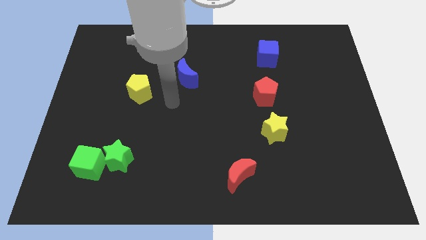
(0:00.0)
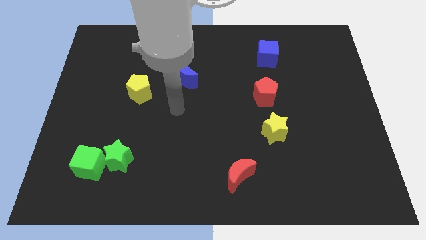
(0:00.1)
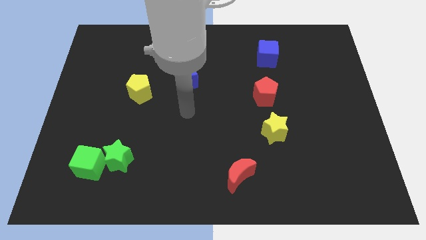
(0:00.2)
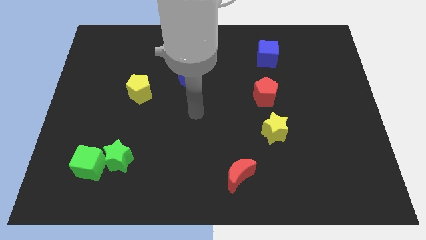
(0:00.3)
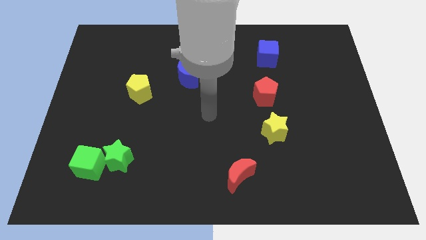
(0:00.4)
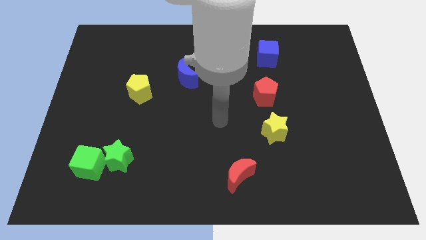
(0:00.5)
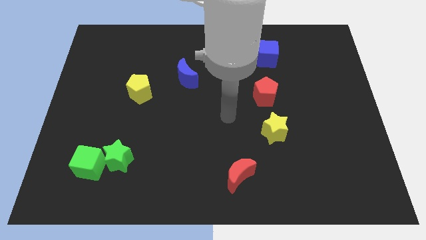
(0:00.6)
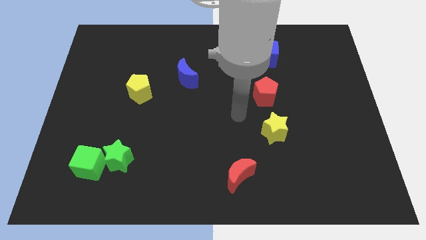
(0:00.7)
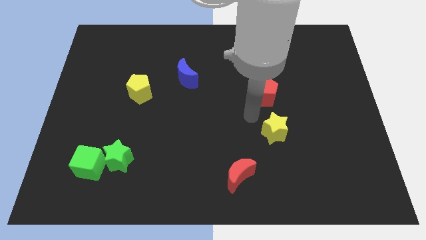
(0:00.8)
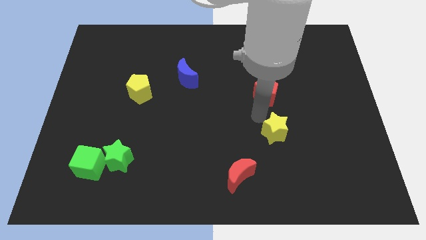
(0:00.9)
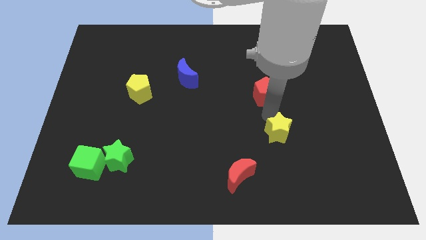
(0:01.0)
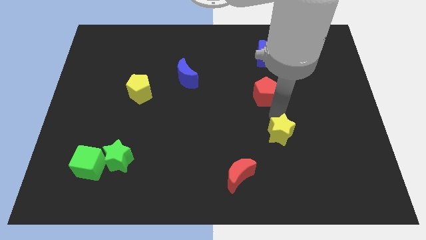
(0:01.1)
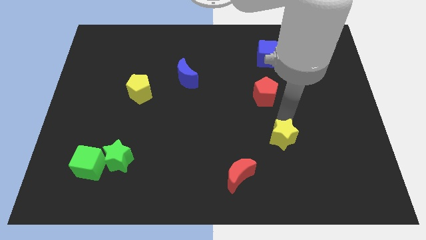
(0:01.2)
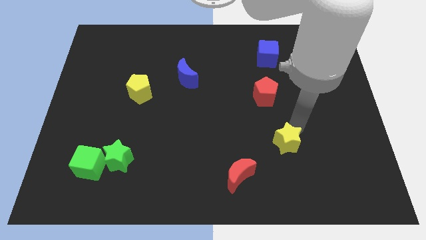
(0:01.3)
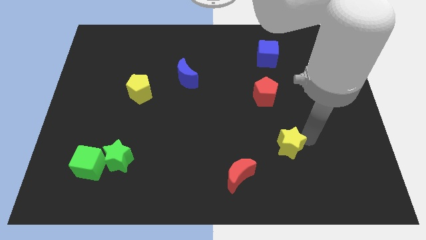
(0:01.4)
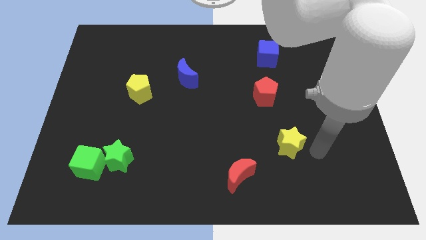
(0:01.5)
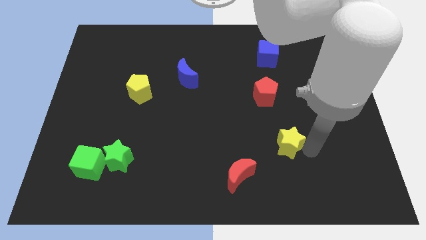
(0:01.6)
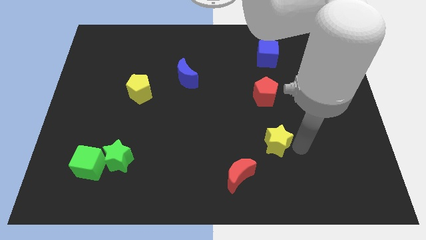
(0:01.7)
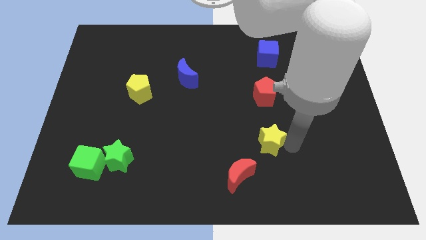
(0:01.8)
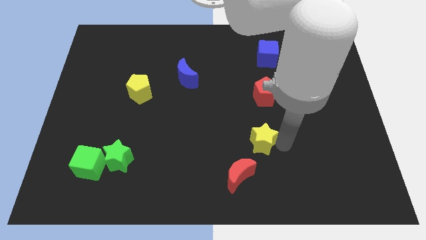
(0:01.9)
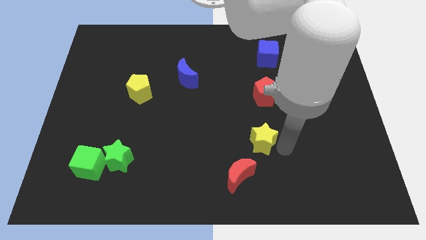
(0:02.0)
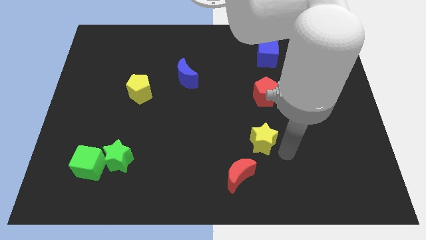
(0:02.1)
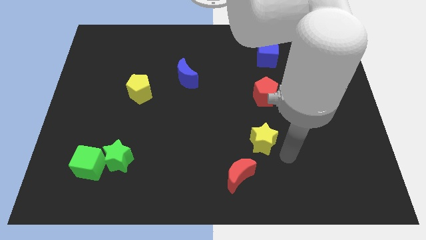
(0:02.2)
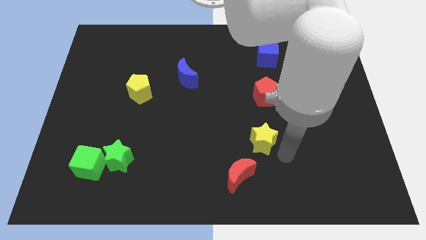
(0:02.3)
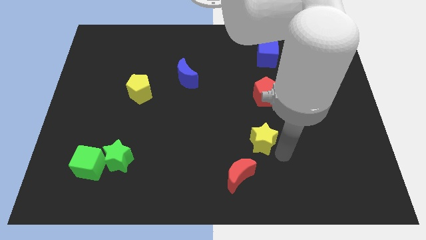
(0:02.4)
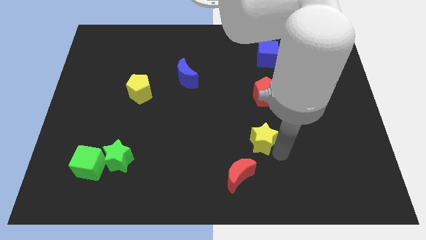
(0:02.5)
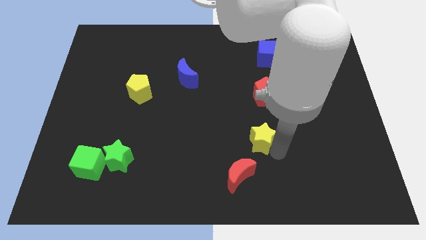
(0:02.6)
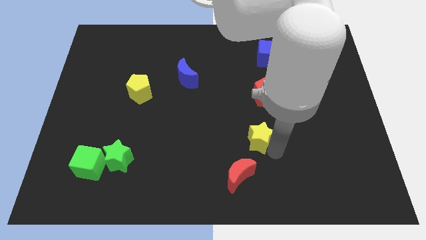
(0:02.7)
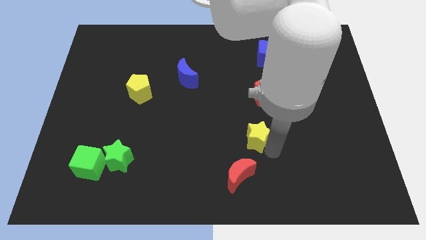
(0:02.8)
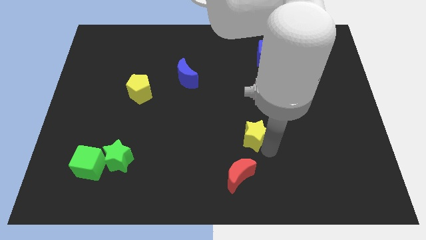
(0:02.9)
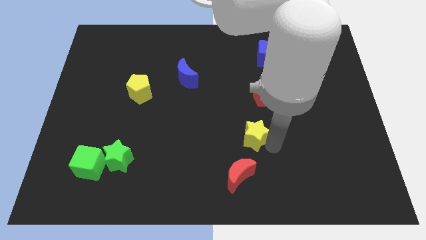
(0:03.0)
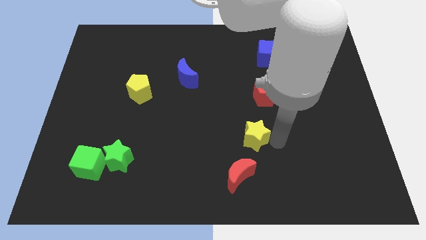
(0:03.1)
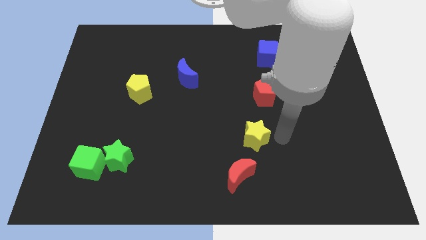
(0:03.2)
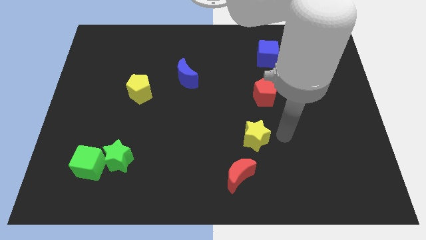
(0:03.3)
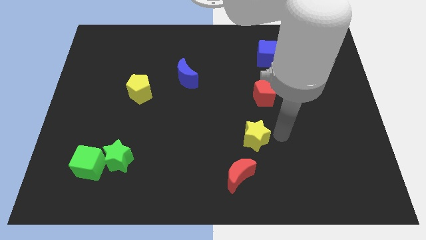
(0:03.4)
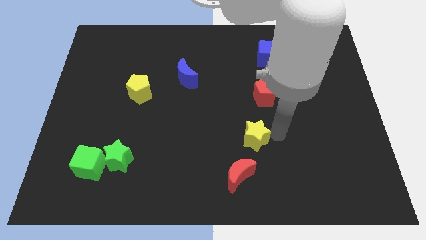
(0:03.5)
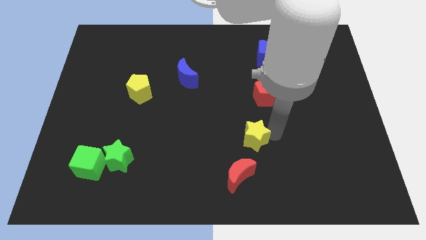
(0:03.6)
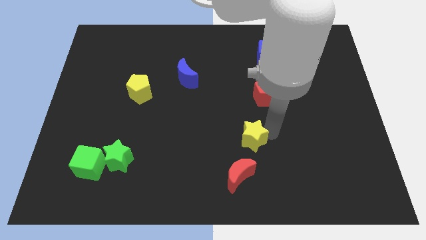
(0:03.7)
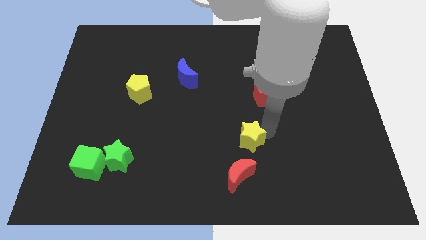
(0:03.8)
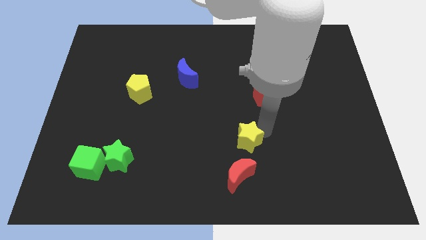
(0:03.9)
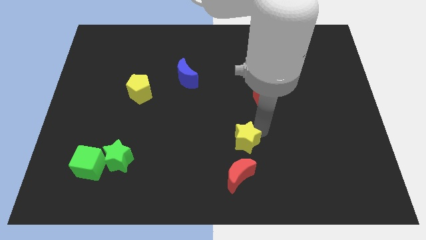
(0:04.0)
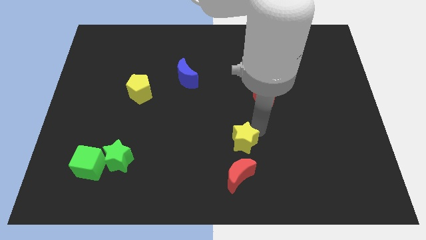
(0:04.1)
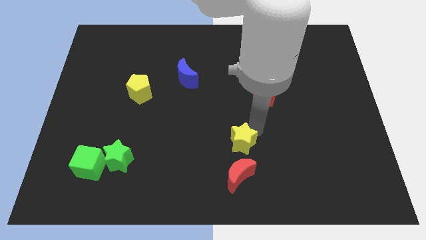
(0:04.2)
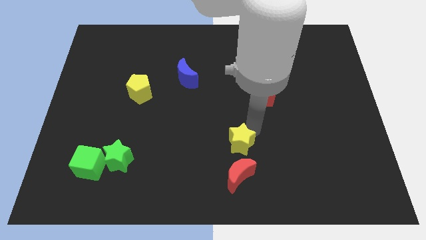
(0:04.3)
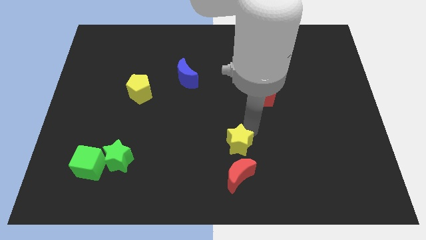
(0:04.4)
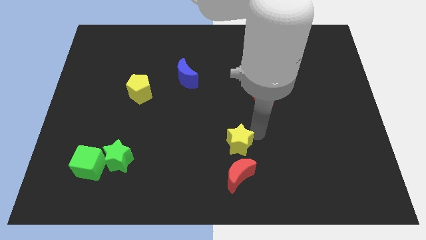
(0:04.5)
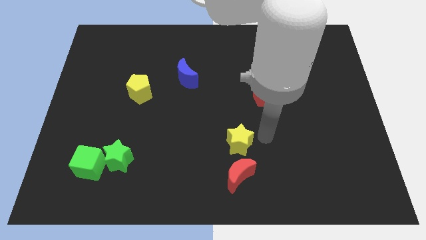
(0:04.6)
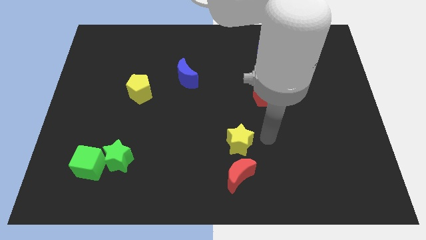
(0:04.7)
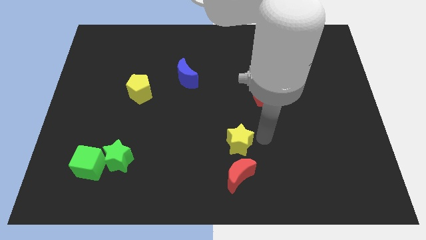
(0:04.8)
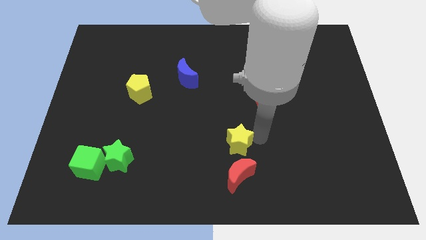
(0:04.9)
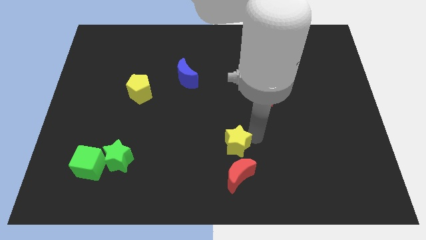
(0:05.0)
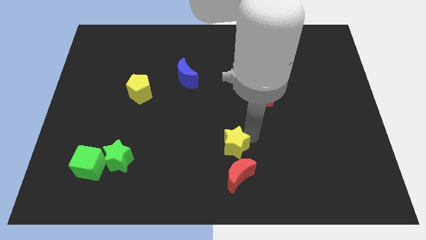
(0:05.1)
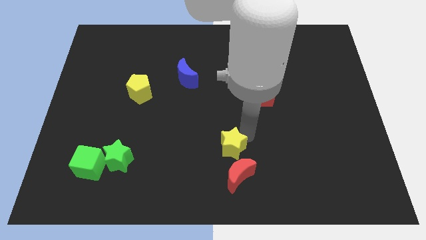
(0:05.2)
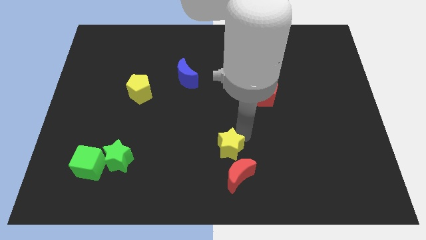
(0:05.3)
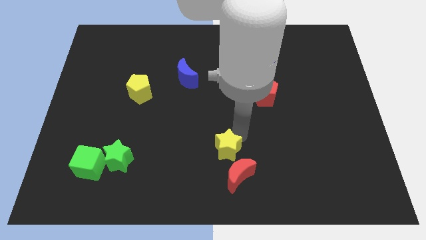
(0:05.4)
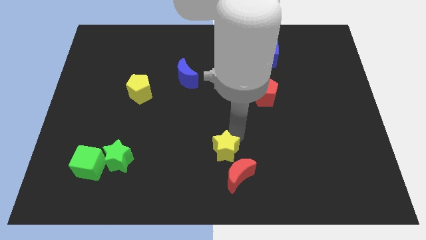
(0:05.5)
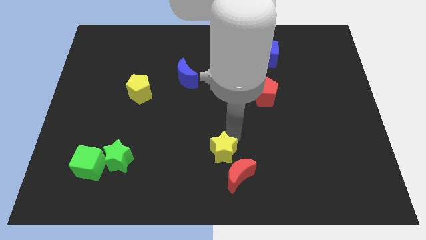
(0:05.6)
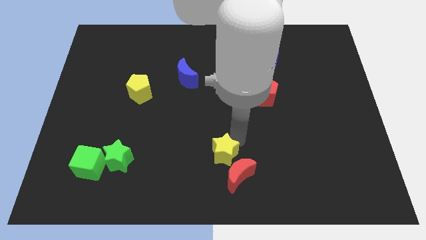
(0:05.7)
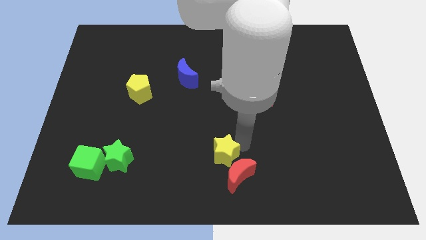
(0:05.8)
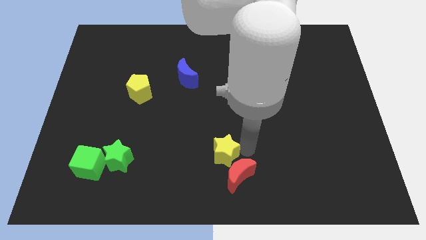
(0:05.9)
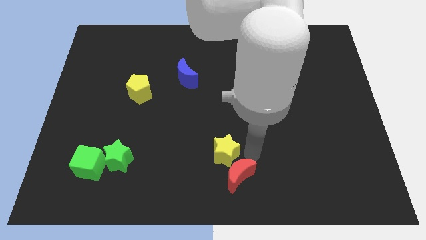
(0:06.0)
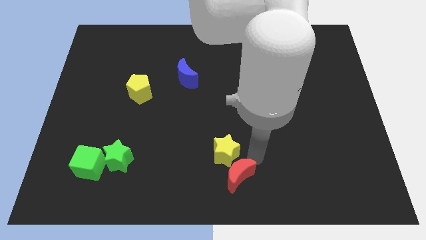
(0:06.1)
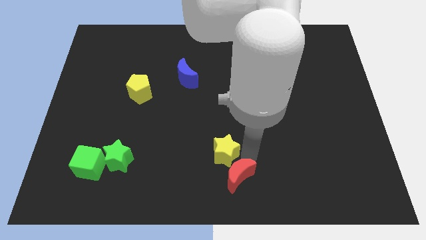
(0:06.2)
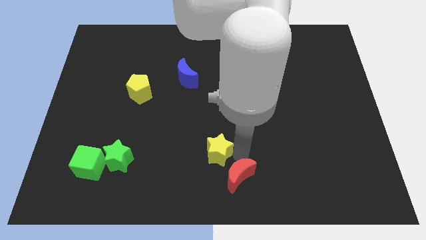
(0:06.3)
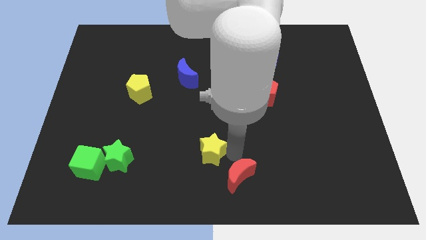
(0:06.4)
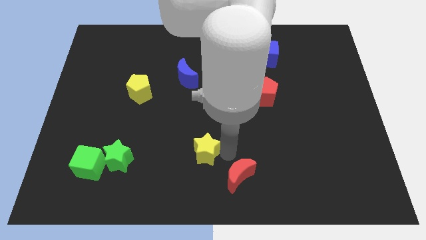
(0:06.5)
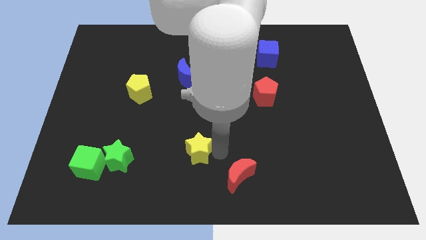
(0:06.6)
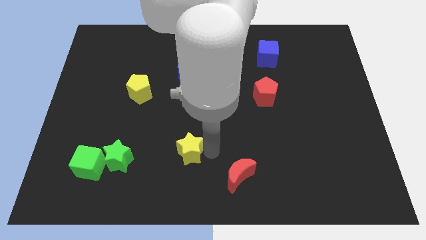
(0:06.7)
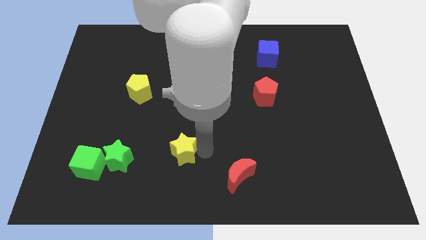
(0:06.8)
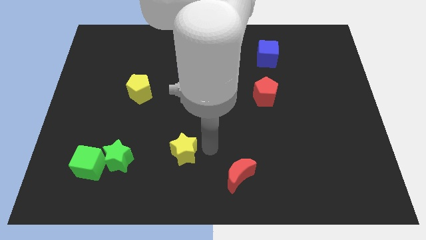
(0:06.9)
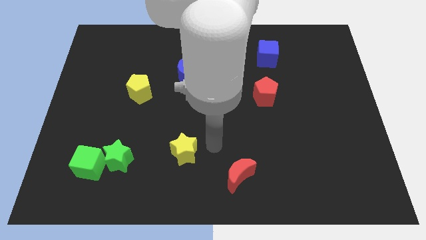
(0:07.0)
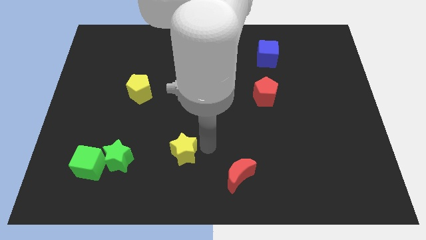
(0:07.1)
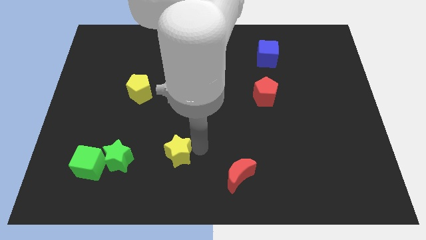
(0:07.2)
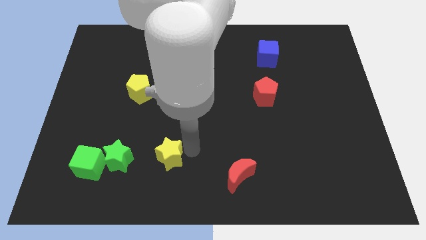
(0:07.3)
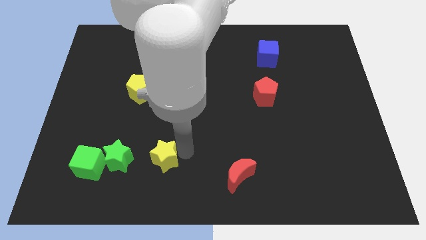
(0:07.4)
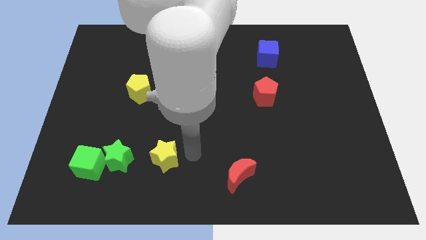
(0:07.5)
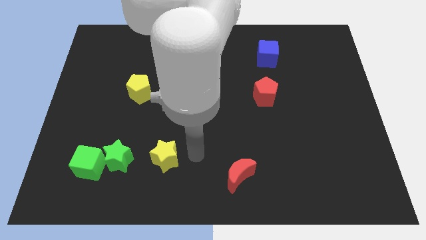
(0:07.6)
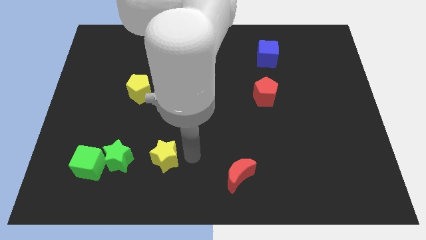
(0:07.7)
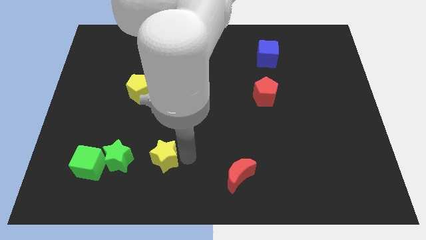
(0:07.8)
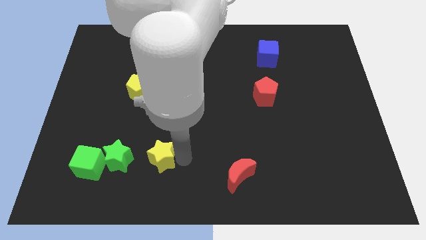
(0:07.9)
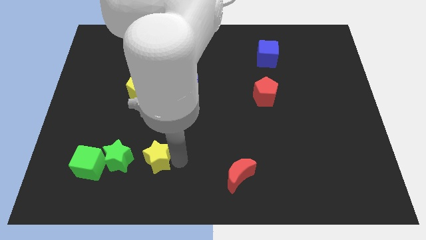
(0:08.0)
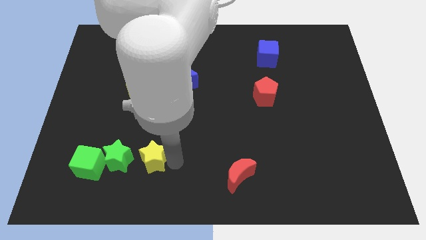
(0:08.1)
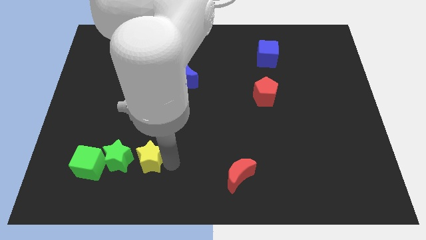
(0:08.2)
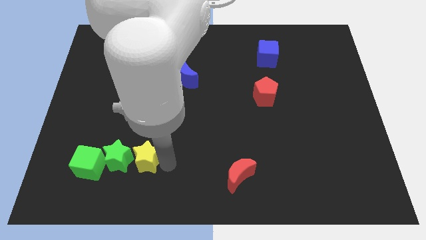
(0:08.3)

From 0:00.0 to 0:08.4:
put the yellow star close to the green star
